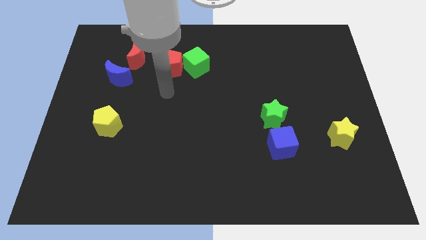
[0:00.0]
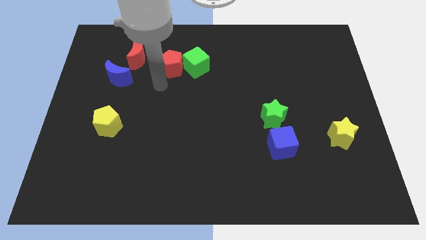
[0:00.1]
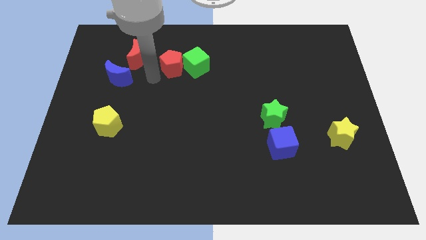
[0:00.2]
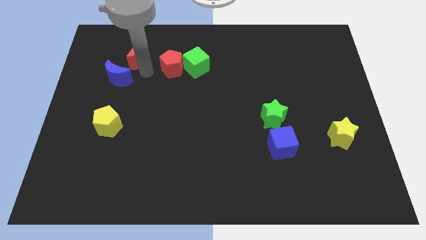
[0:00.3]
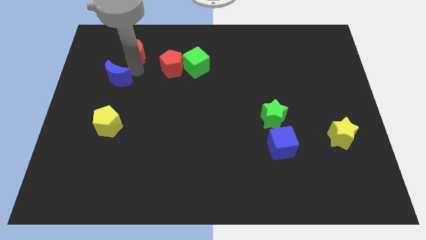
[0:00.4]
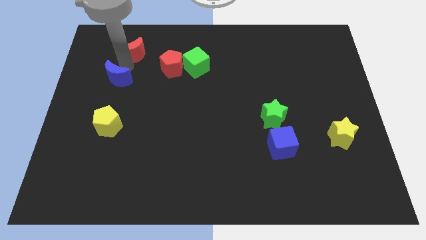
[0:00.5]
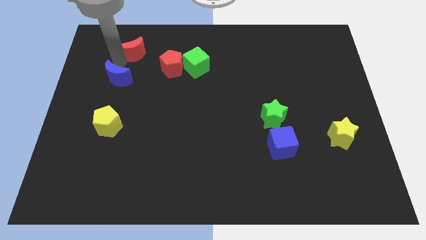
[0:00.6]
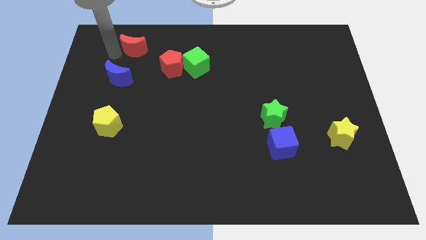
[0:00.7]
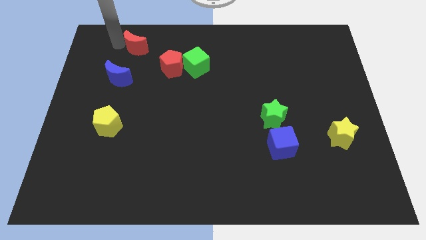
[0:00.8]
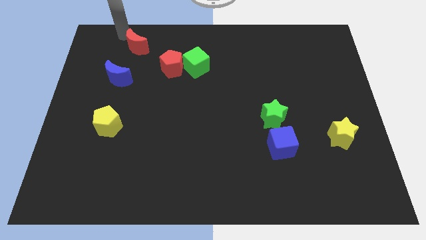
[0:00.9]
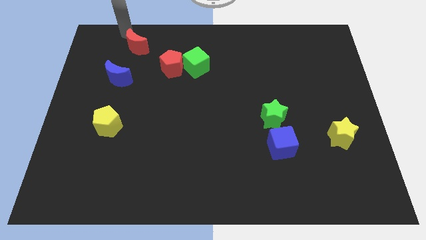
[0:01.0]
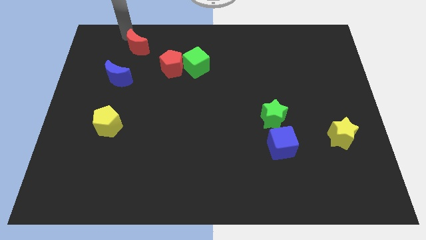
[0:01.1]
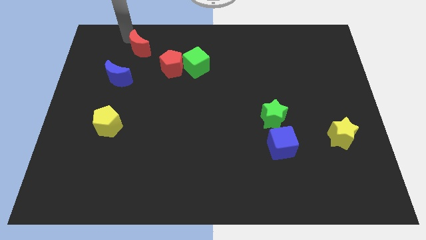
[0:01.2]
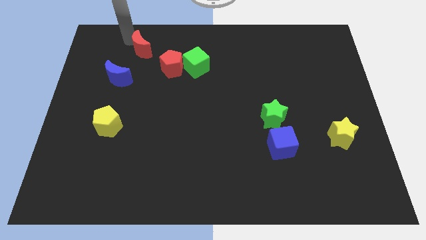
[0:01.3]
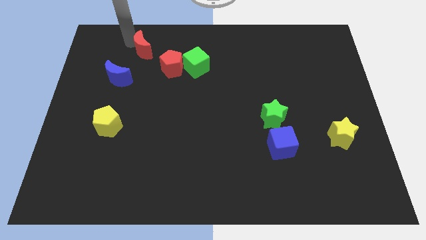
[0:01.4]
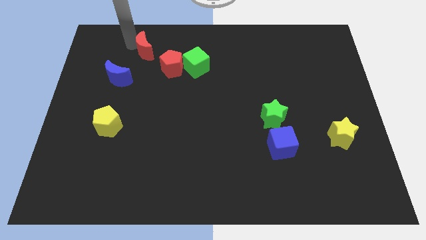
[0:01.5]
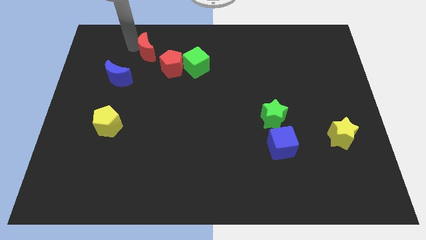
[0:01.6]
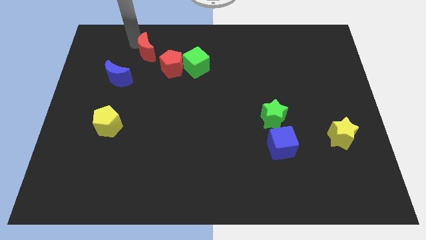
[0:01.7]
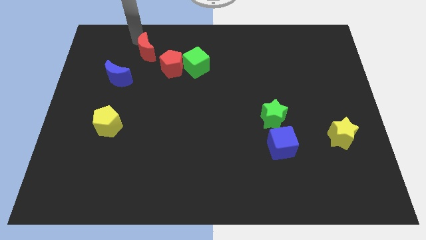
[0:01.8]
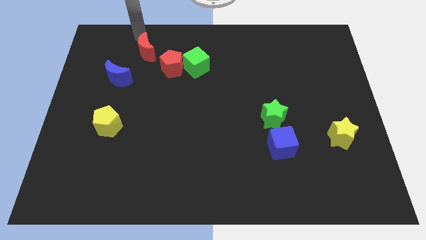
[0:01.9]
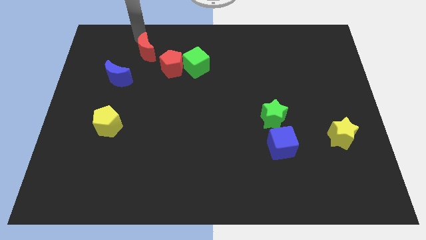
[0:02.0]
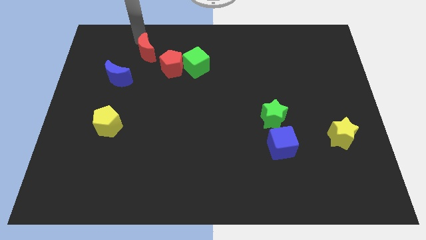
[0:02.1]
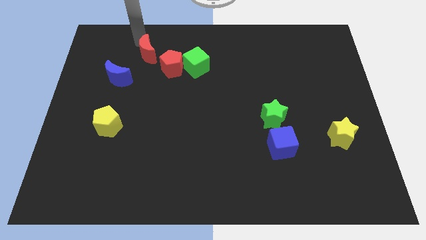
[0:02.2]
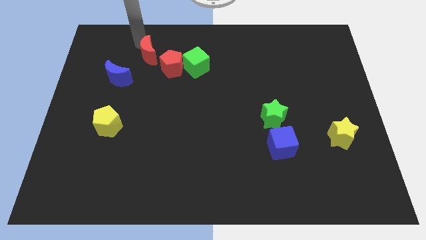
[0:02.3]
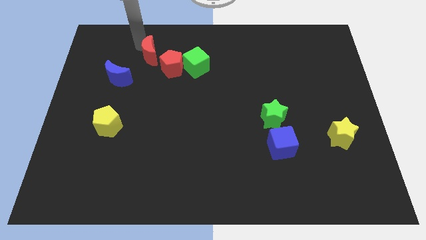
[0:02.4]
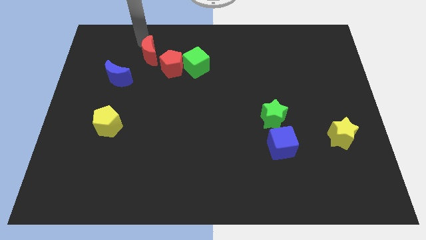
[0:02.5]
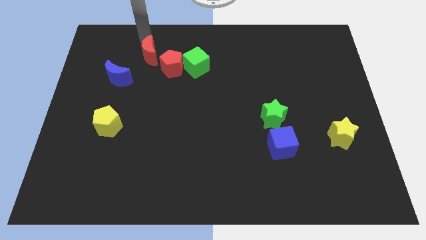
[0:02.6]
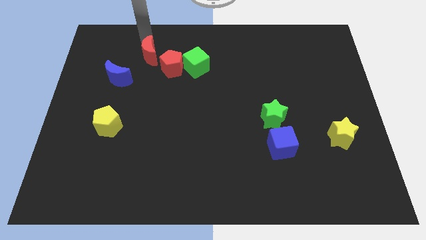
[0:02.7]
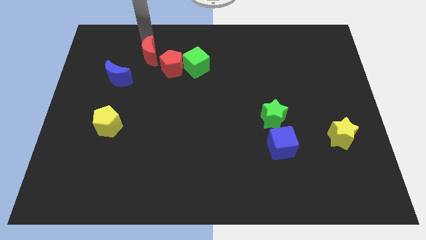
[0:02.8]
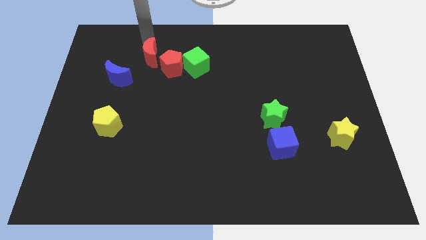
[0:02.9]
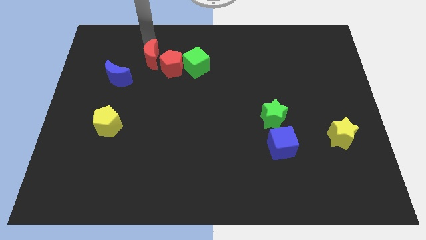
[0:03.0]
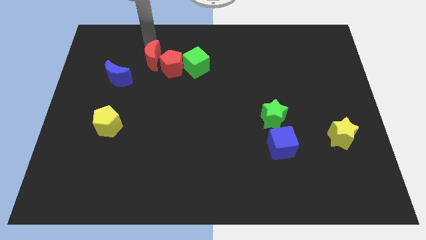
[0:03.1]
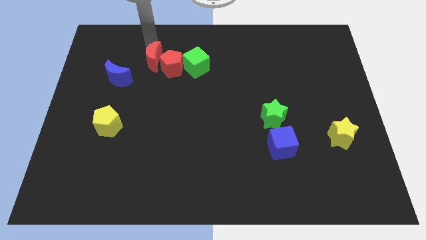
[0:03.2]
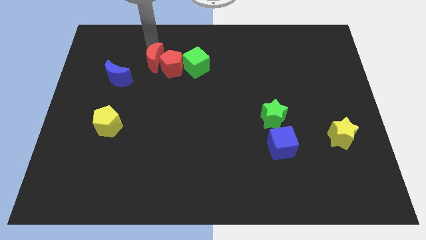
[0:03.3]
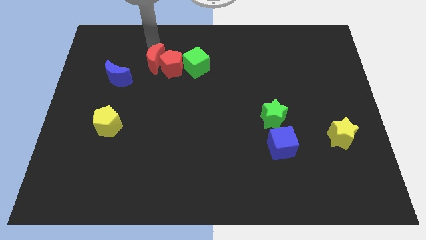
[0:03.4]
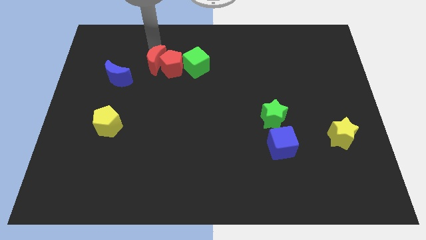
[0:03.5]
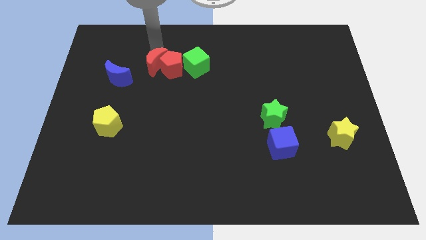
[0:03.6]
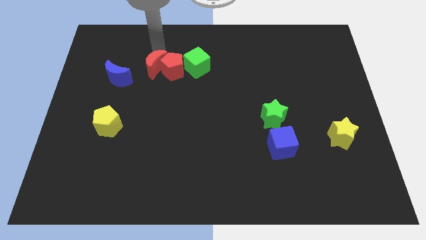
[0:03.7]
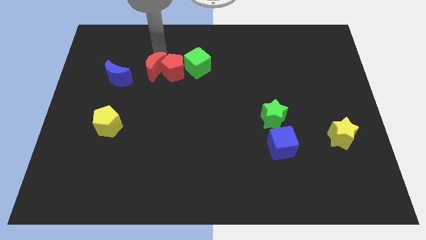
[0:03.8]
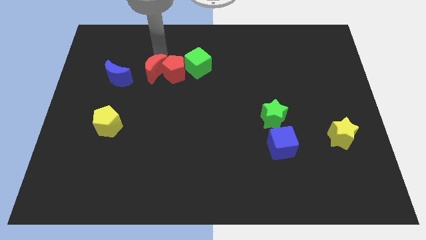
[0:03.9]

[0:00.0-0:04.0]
slide the red moon downwards and then right a little bit

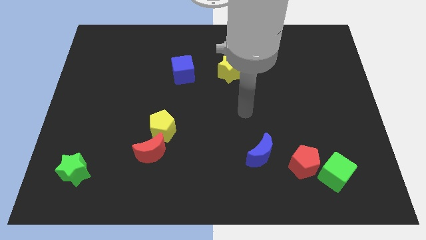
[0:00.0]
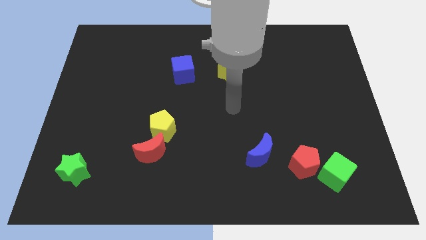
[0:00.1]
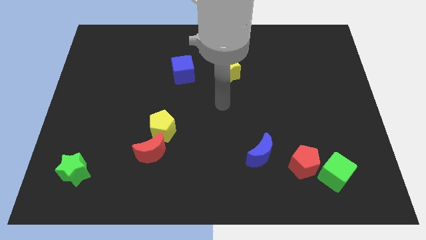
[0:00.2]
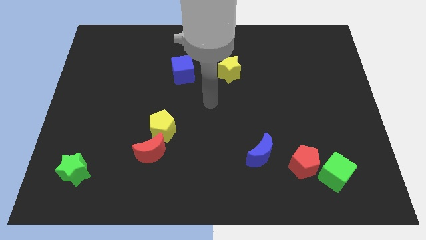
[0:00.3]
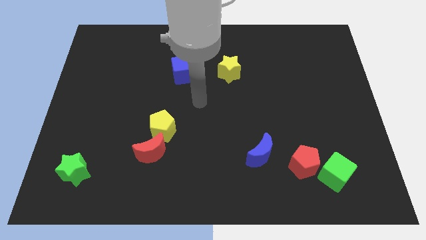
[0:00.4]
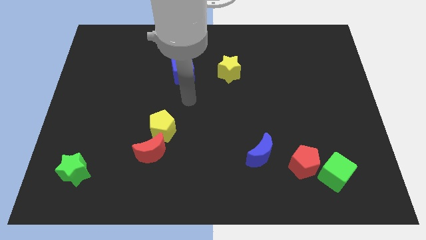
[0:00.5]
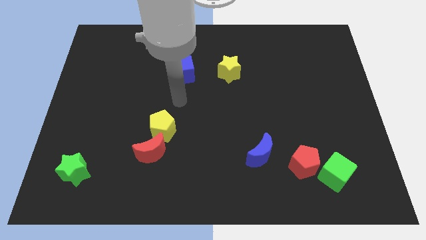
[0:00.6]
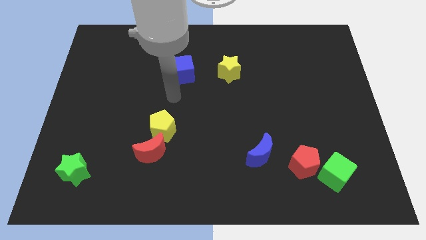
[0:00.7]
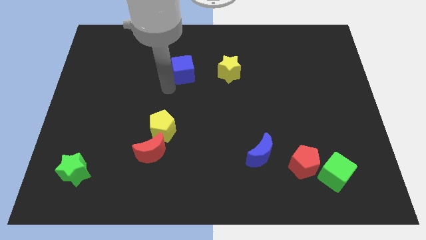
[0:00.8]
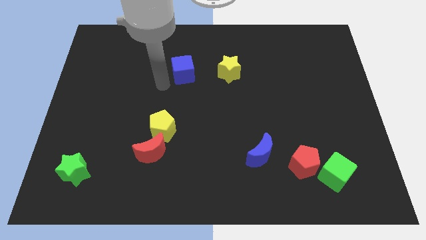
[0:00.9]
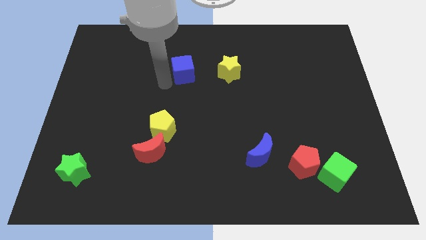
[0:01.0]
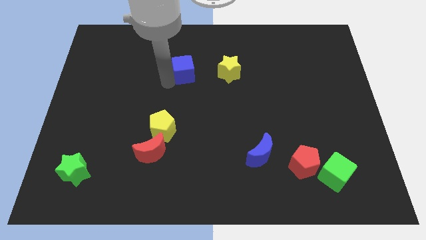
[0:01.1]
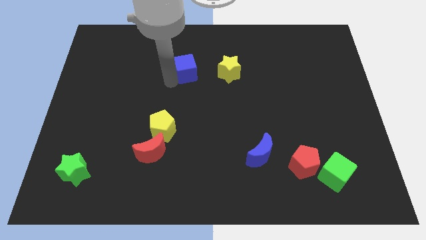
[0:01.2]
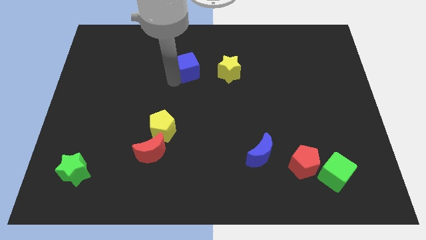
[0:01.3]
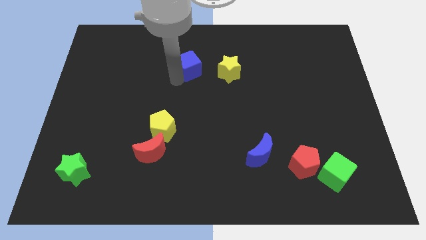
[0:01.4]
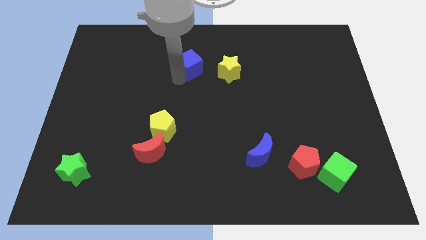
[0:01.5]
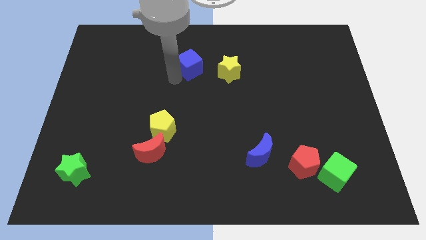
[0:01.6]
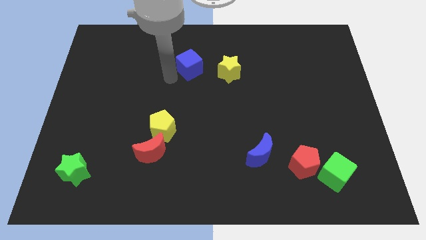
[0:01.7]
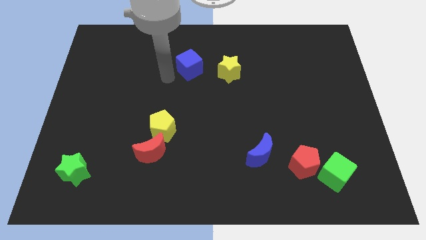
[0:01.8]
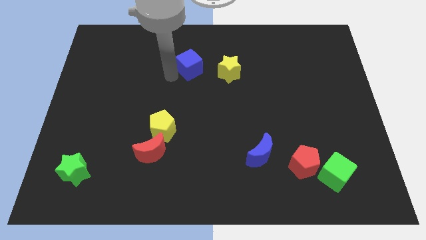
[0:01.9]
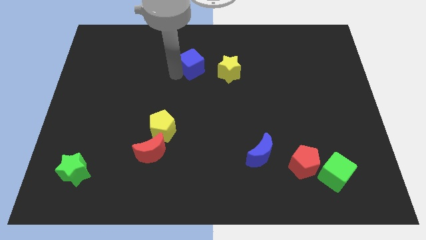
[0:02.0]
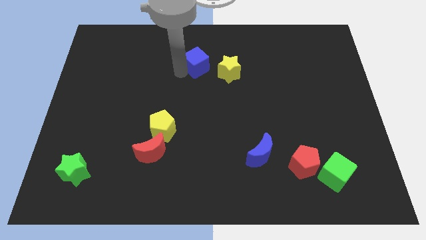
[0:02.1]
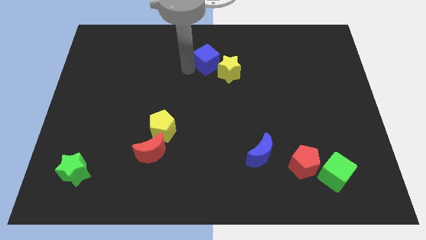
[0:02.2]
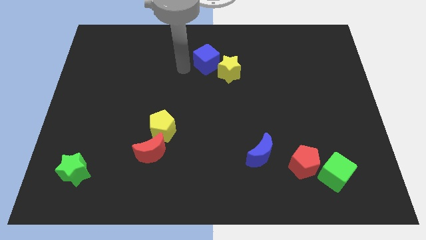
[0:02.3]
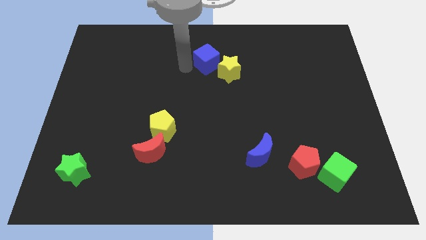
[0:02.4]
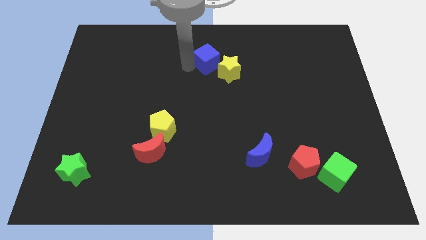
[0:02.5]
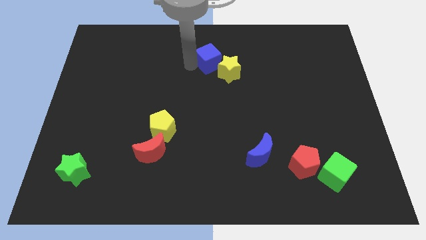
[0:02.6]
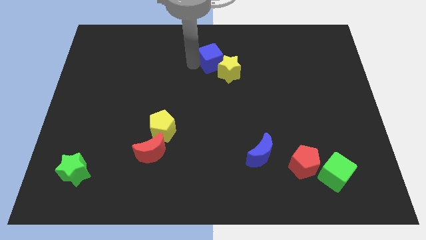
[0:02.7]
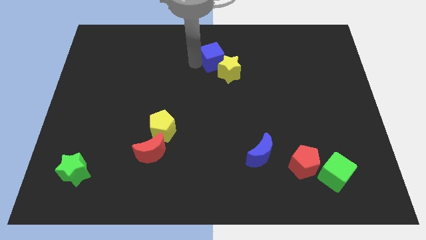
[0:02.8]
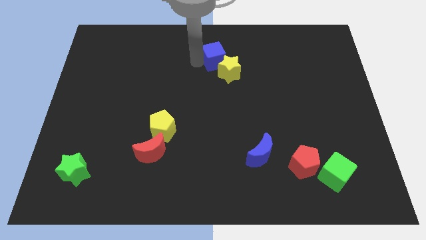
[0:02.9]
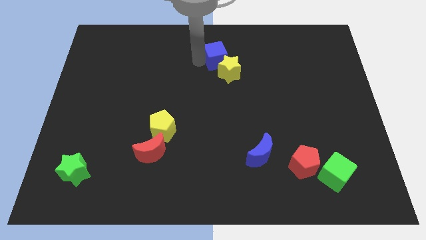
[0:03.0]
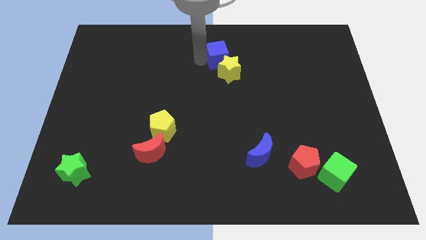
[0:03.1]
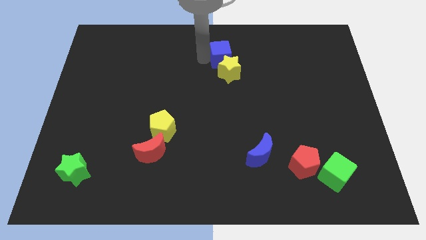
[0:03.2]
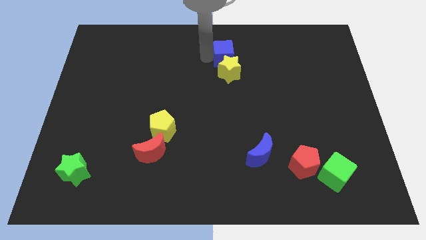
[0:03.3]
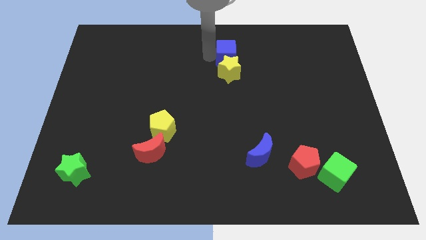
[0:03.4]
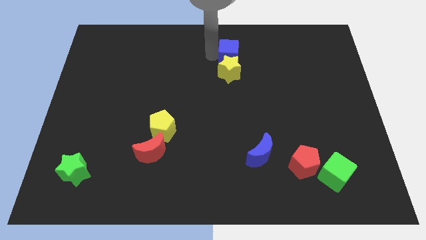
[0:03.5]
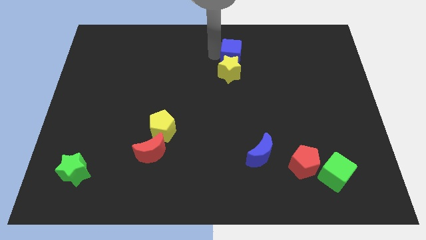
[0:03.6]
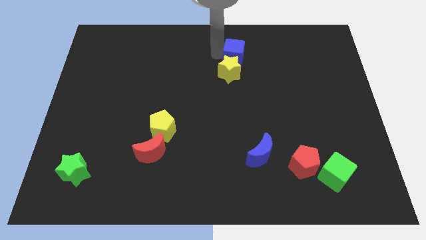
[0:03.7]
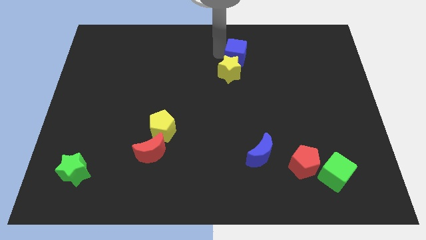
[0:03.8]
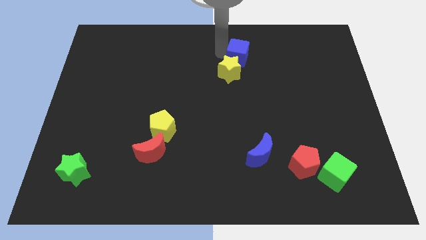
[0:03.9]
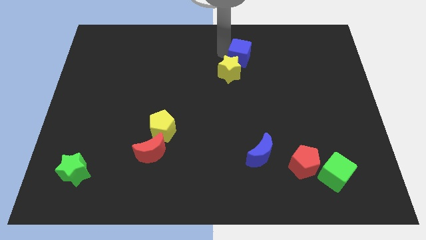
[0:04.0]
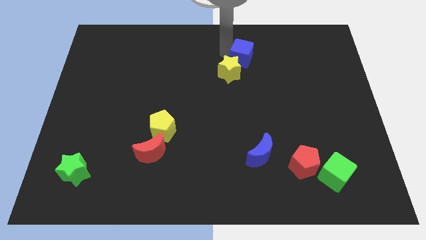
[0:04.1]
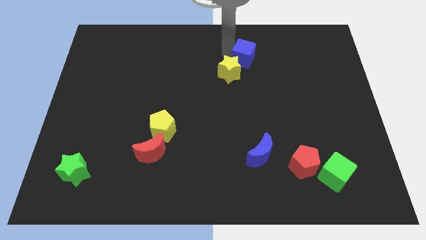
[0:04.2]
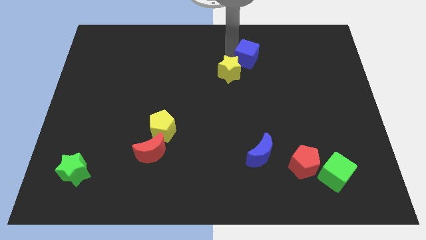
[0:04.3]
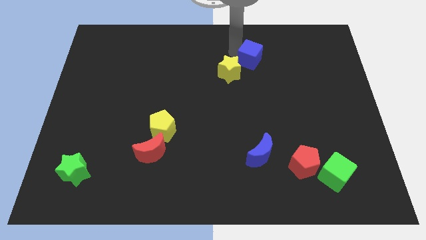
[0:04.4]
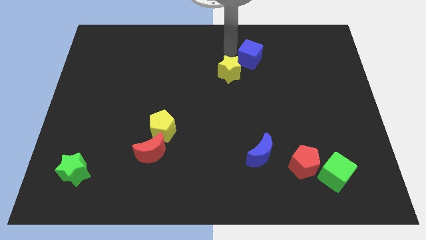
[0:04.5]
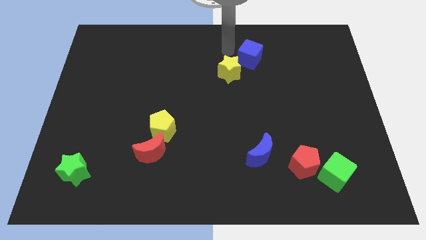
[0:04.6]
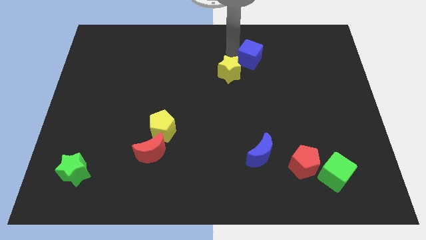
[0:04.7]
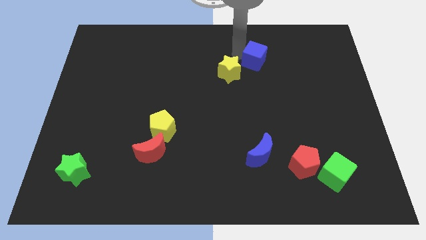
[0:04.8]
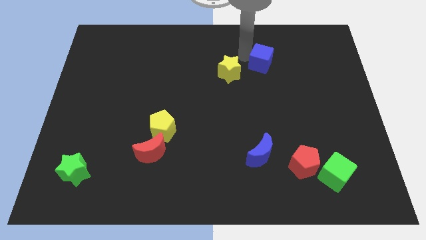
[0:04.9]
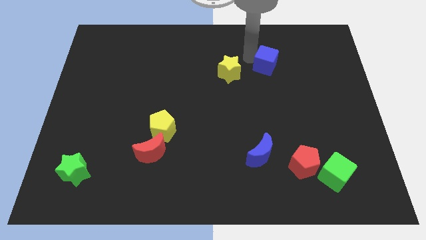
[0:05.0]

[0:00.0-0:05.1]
slide the blue cube to the right
